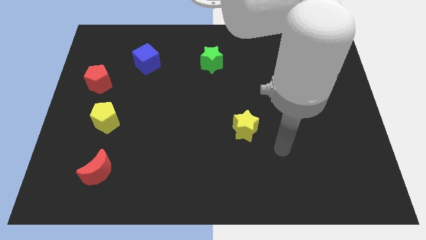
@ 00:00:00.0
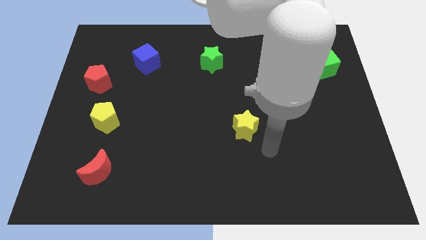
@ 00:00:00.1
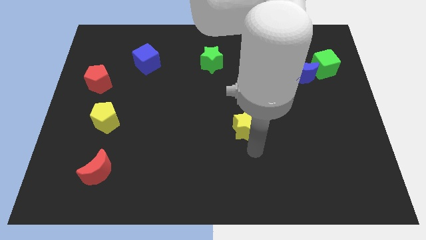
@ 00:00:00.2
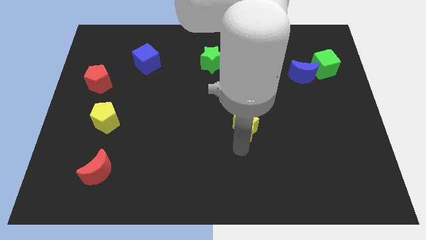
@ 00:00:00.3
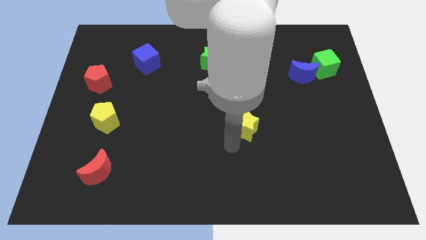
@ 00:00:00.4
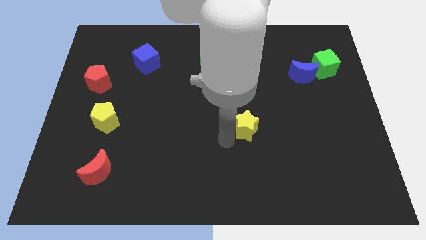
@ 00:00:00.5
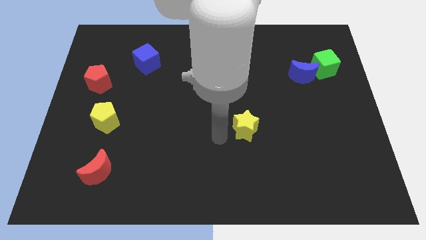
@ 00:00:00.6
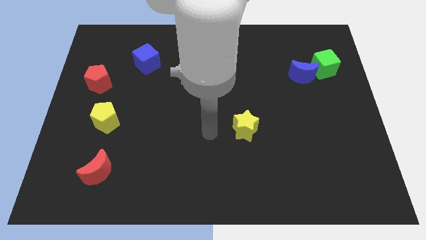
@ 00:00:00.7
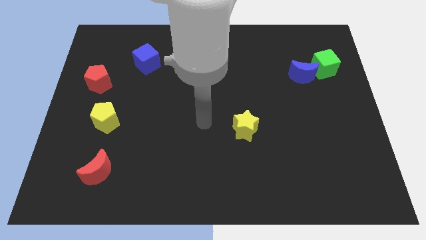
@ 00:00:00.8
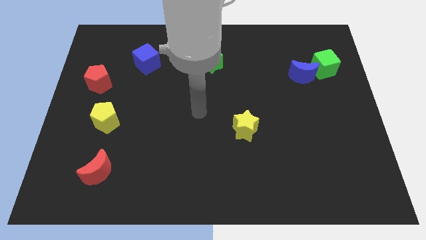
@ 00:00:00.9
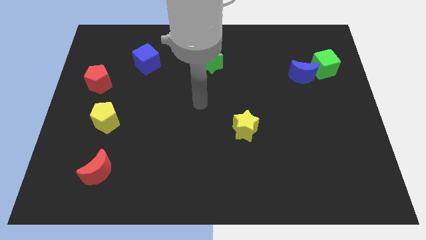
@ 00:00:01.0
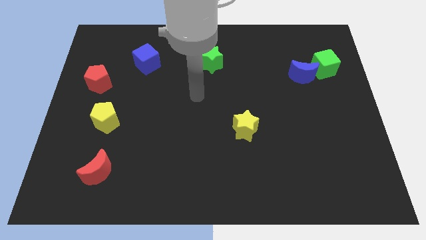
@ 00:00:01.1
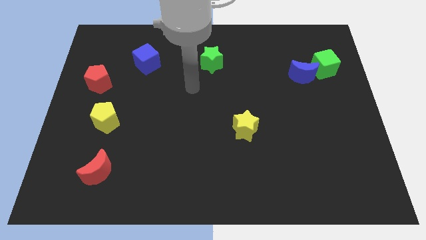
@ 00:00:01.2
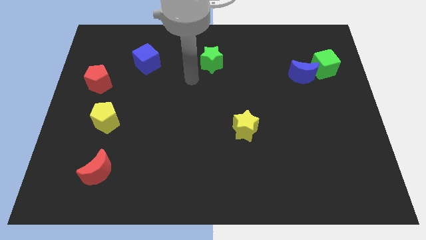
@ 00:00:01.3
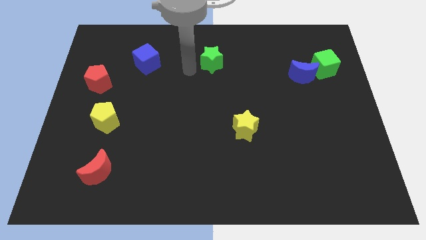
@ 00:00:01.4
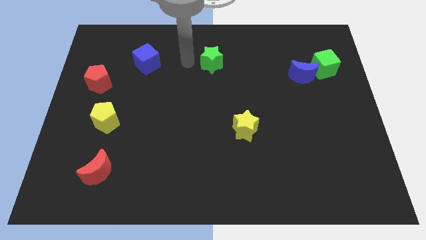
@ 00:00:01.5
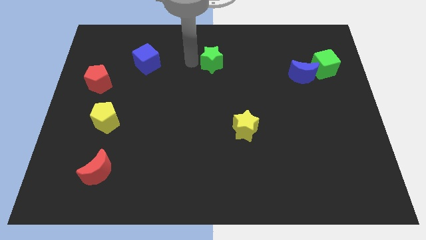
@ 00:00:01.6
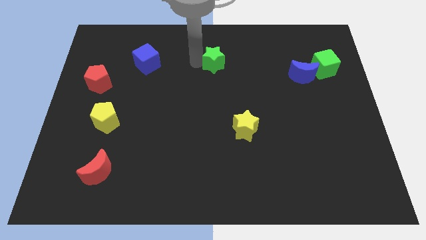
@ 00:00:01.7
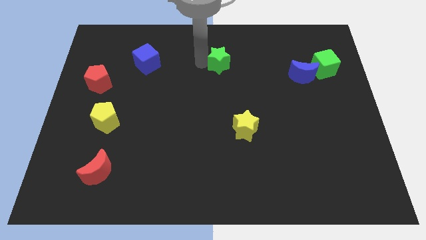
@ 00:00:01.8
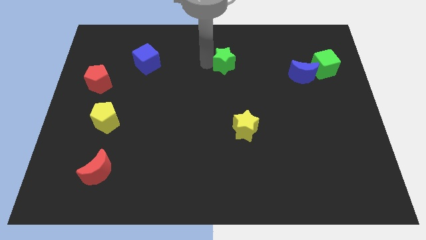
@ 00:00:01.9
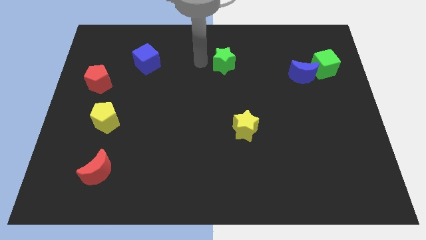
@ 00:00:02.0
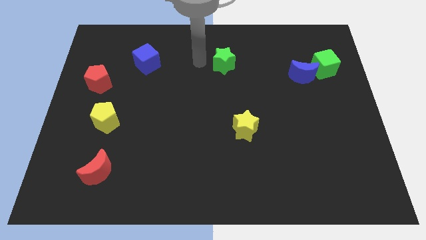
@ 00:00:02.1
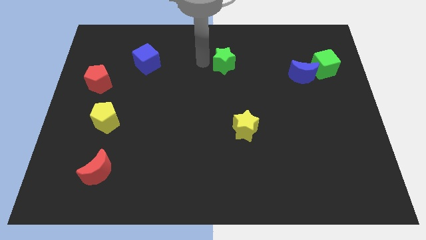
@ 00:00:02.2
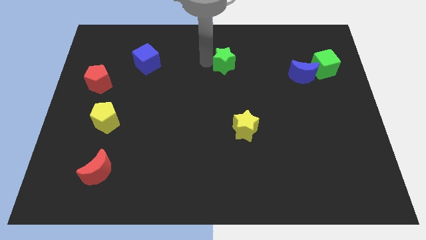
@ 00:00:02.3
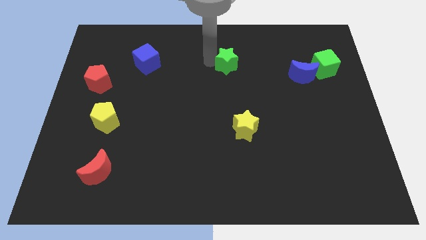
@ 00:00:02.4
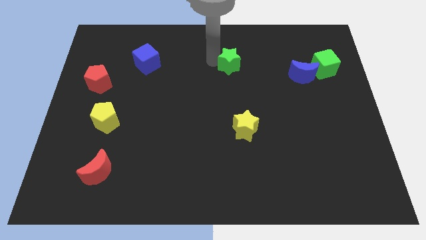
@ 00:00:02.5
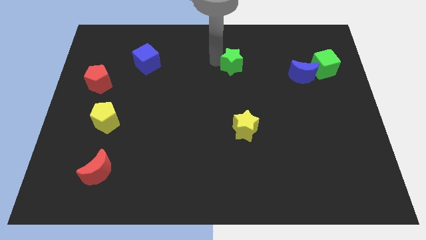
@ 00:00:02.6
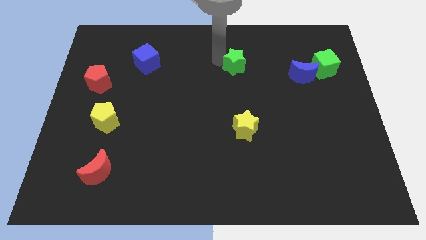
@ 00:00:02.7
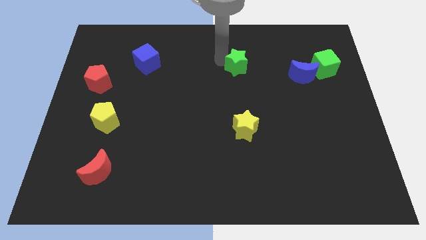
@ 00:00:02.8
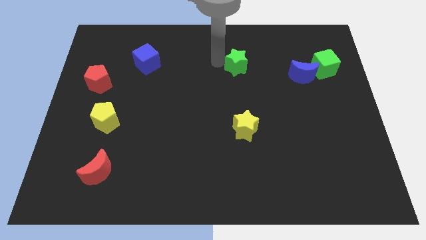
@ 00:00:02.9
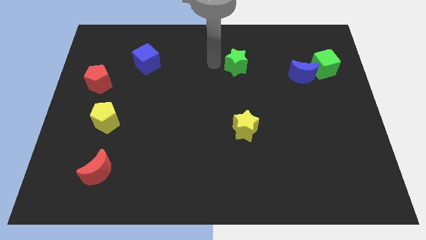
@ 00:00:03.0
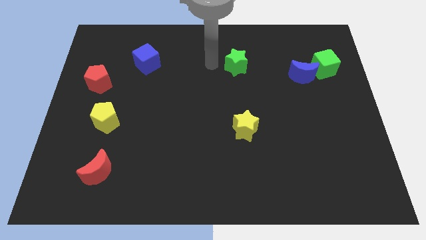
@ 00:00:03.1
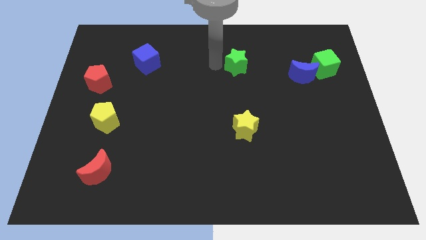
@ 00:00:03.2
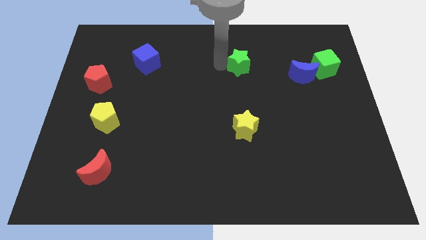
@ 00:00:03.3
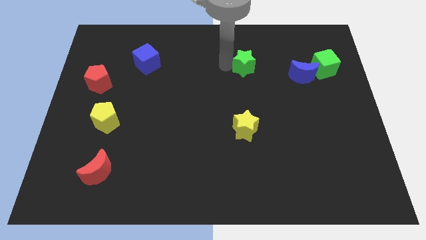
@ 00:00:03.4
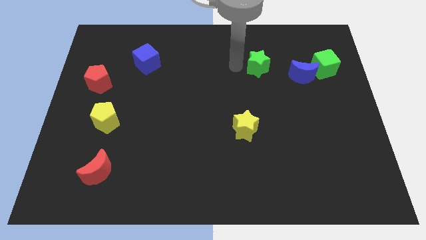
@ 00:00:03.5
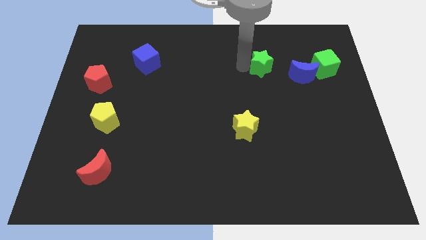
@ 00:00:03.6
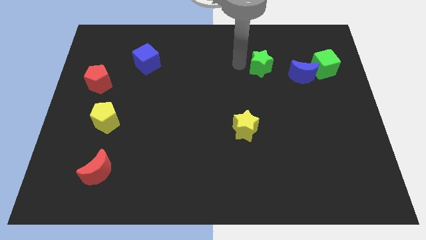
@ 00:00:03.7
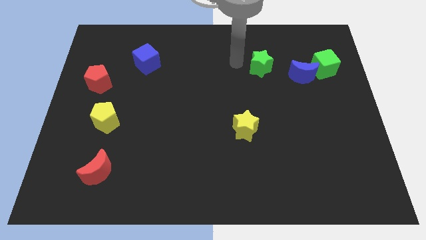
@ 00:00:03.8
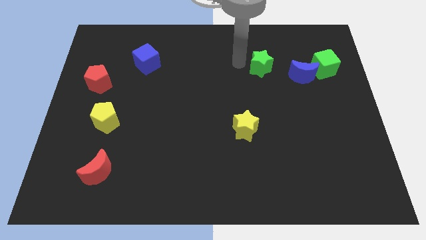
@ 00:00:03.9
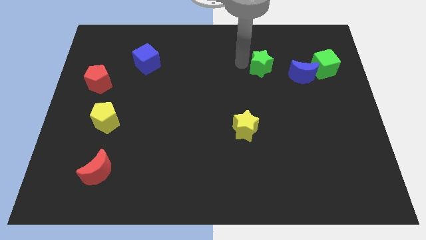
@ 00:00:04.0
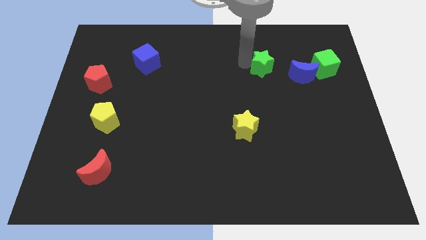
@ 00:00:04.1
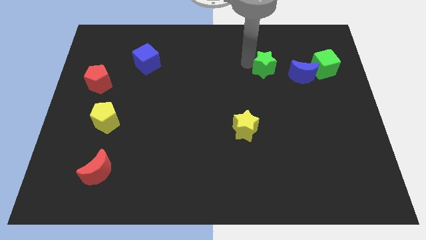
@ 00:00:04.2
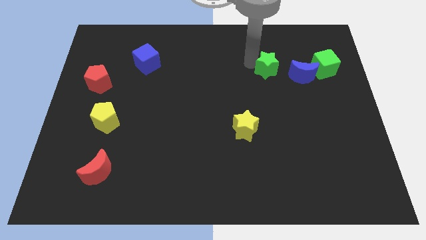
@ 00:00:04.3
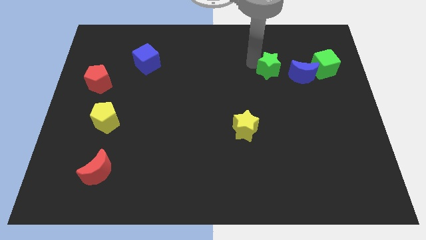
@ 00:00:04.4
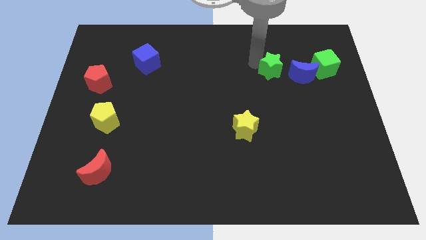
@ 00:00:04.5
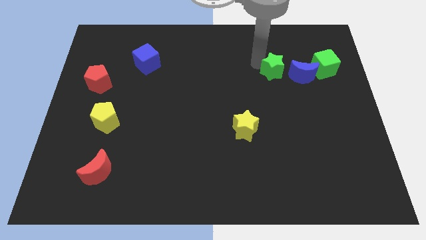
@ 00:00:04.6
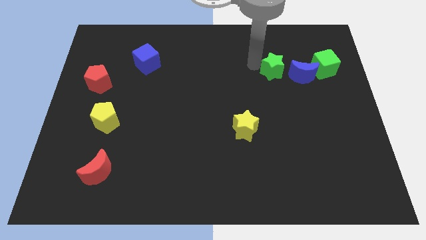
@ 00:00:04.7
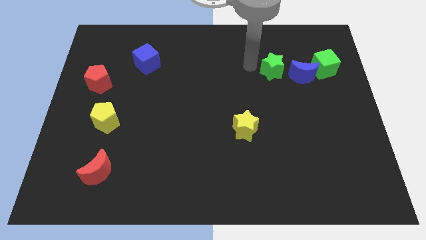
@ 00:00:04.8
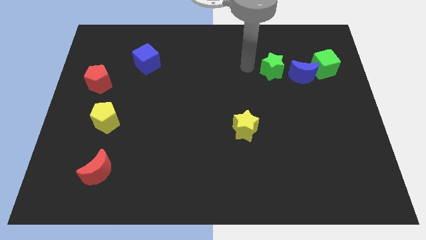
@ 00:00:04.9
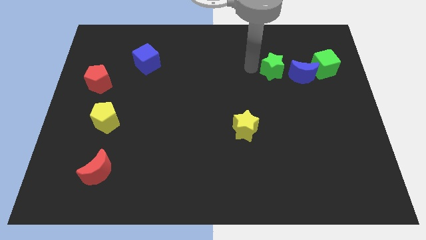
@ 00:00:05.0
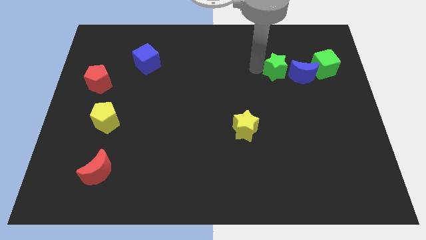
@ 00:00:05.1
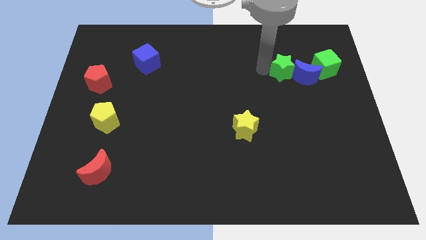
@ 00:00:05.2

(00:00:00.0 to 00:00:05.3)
slide the green star close to the blue moon

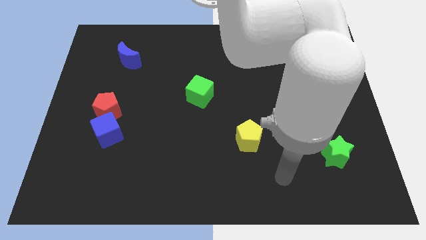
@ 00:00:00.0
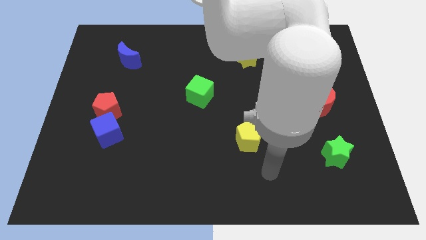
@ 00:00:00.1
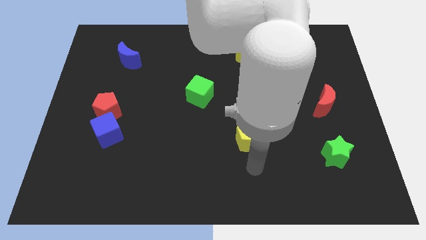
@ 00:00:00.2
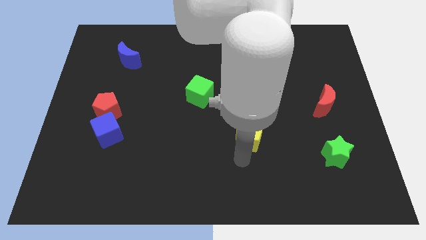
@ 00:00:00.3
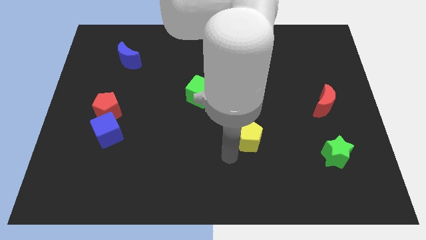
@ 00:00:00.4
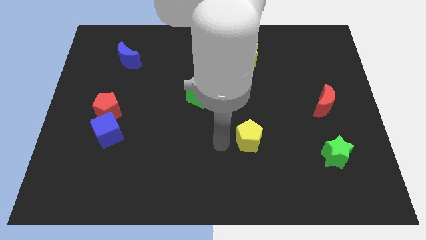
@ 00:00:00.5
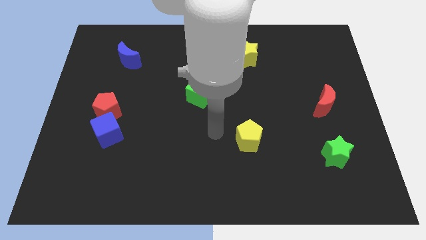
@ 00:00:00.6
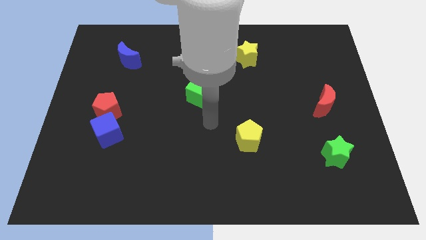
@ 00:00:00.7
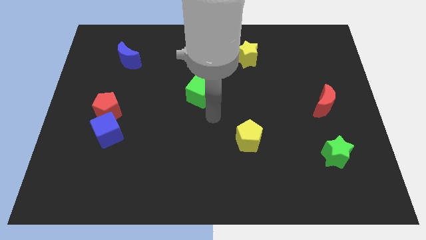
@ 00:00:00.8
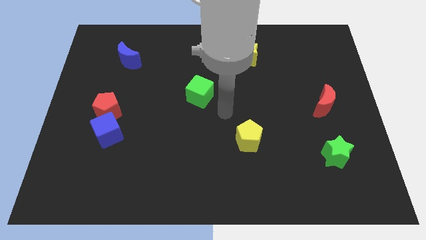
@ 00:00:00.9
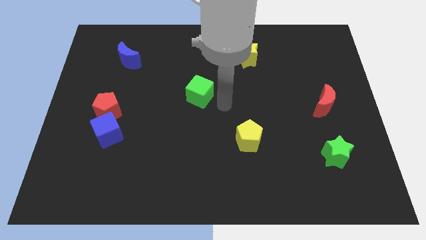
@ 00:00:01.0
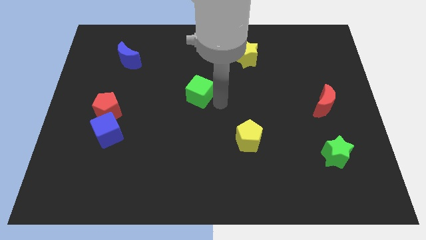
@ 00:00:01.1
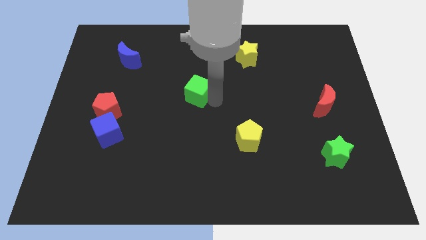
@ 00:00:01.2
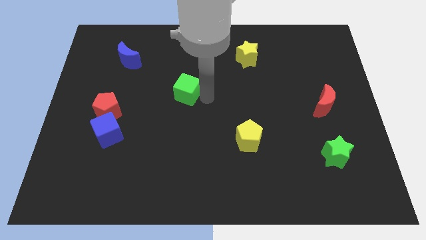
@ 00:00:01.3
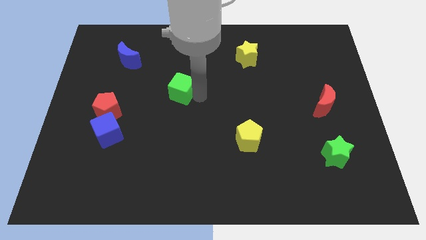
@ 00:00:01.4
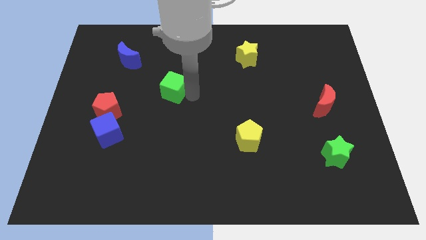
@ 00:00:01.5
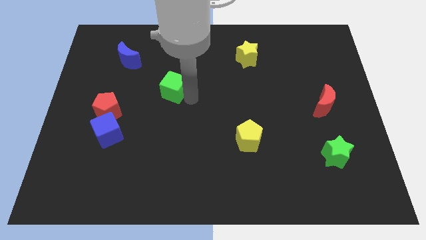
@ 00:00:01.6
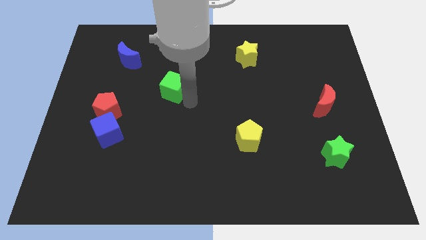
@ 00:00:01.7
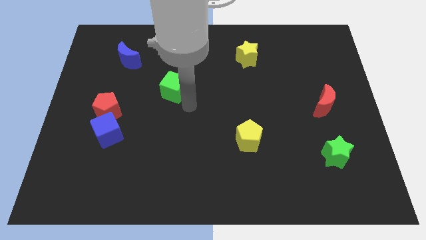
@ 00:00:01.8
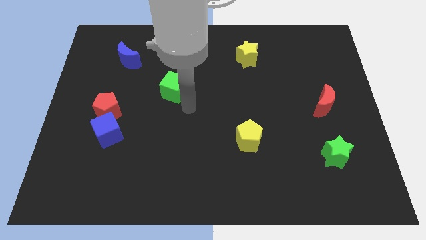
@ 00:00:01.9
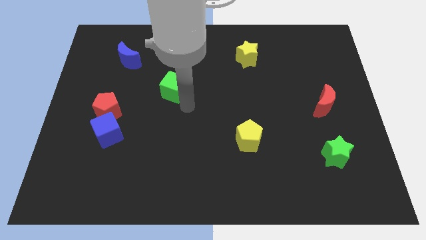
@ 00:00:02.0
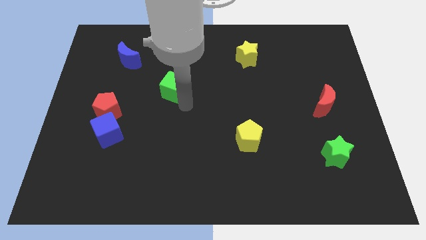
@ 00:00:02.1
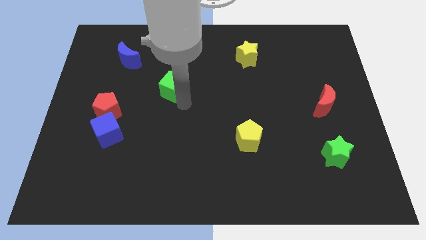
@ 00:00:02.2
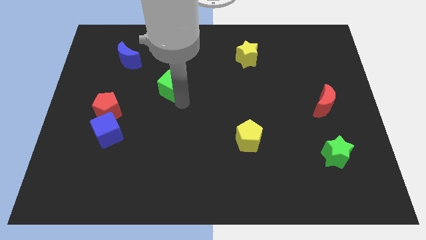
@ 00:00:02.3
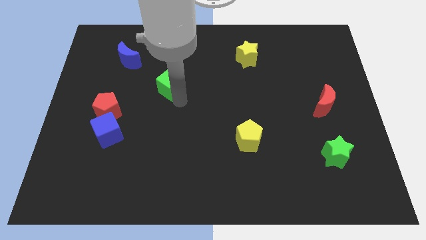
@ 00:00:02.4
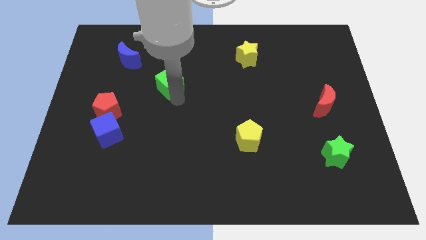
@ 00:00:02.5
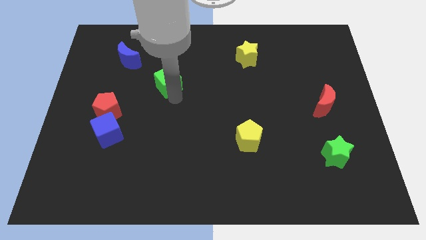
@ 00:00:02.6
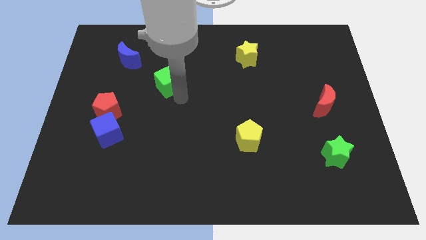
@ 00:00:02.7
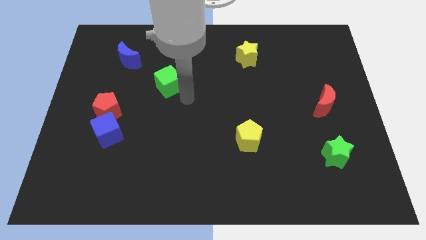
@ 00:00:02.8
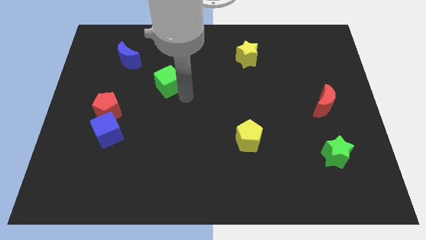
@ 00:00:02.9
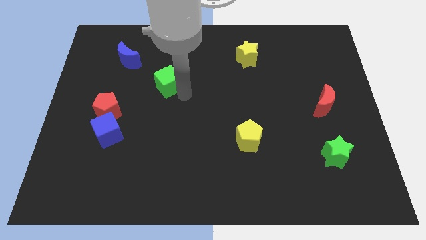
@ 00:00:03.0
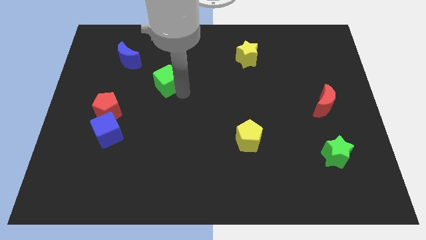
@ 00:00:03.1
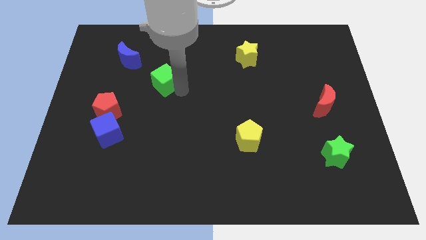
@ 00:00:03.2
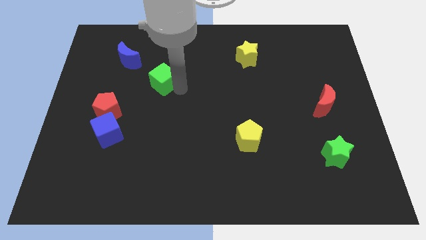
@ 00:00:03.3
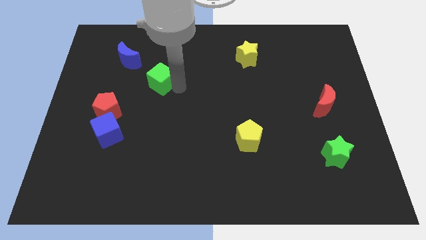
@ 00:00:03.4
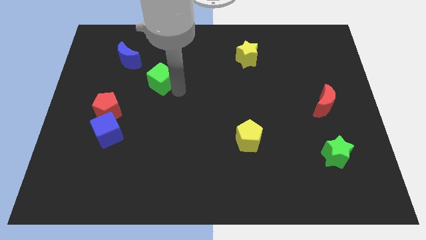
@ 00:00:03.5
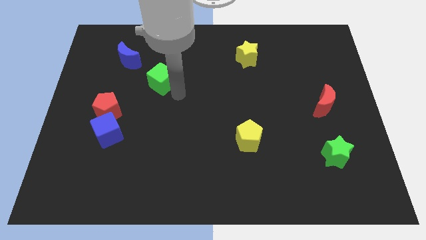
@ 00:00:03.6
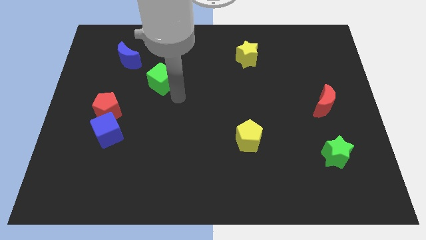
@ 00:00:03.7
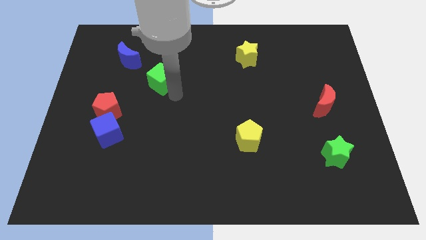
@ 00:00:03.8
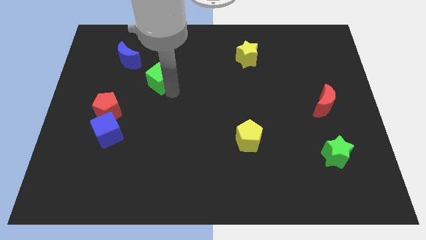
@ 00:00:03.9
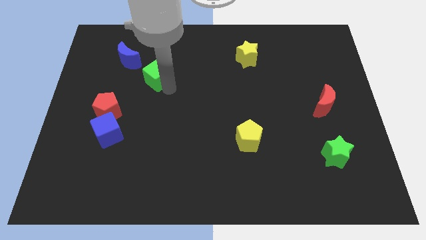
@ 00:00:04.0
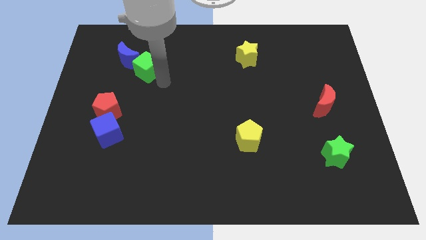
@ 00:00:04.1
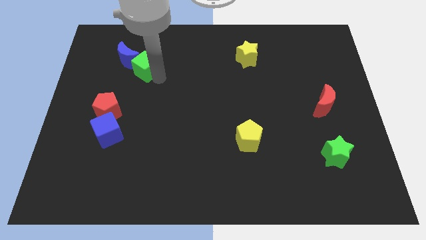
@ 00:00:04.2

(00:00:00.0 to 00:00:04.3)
slide the green cube close to the blue moon
